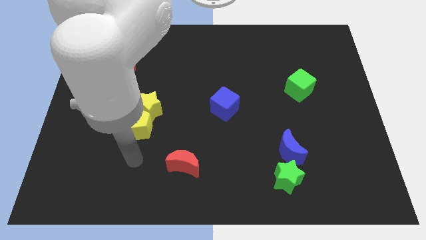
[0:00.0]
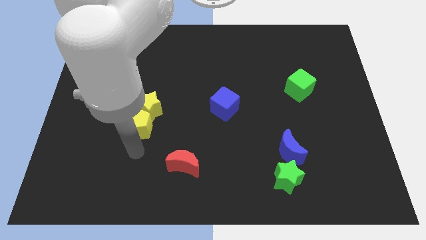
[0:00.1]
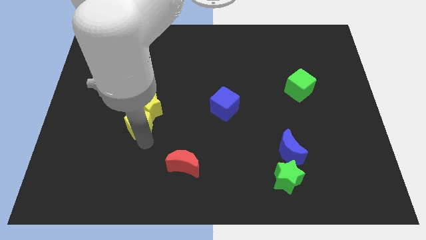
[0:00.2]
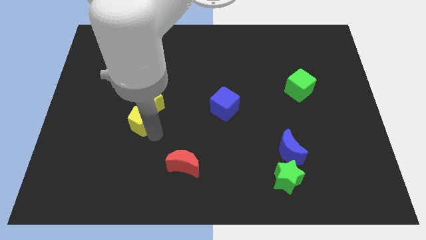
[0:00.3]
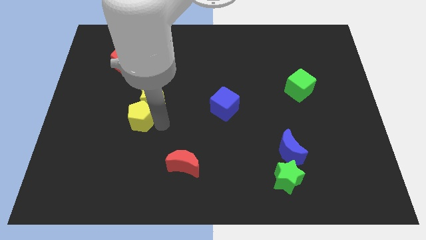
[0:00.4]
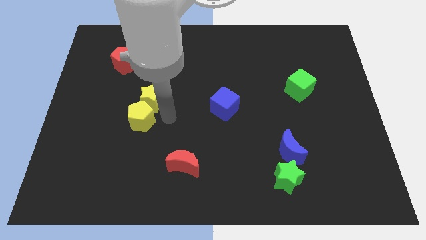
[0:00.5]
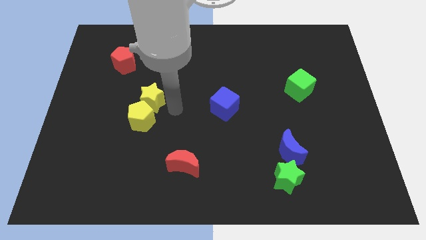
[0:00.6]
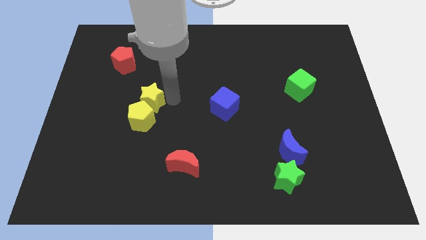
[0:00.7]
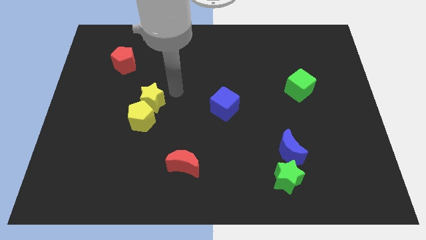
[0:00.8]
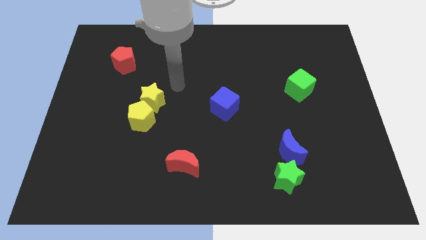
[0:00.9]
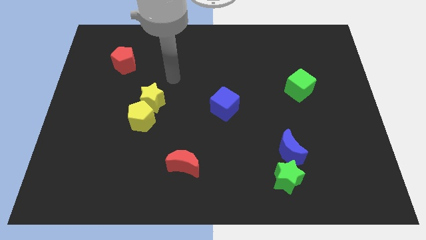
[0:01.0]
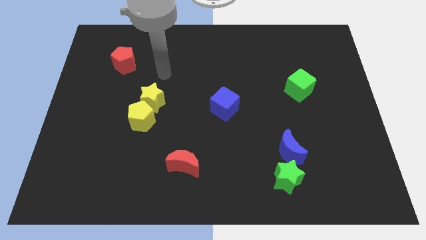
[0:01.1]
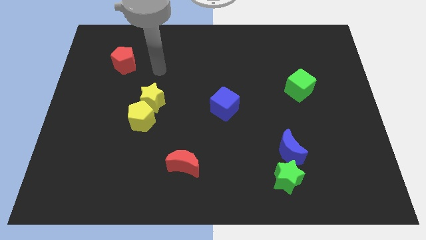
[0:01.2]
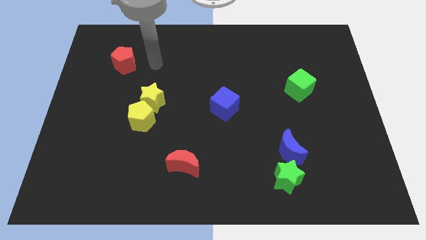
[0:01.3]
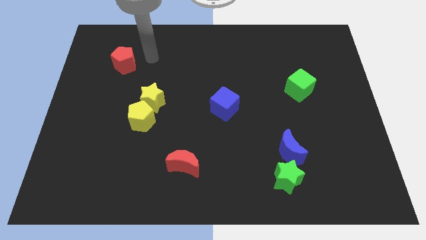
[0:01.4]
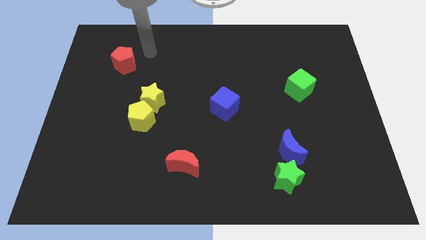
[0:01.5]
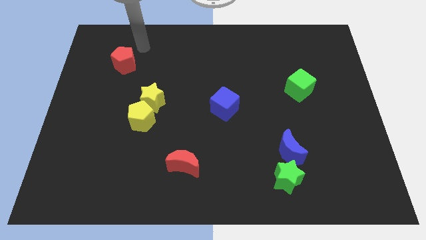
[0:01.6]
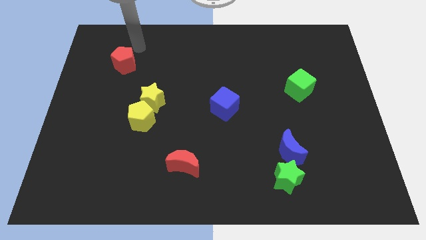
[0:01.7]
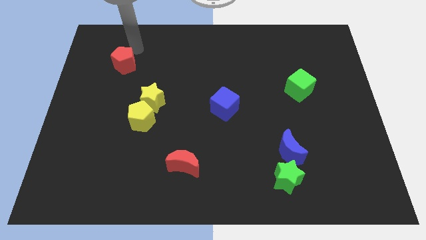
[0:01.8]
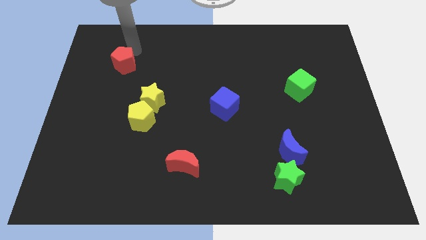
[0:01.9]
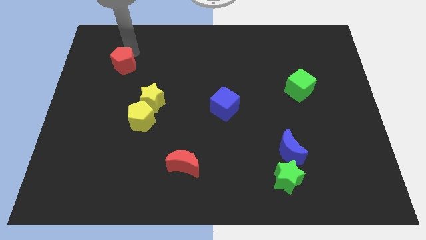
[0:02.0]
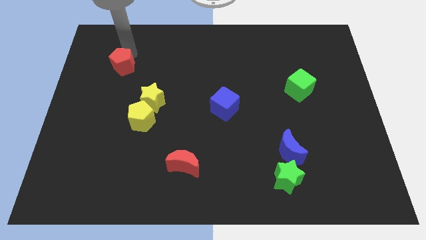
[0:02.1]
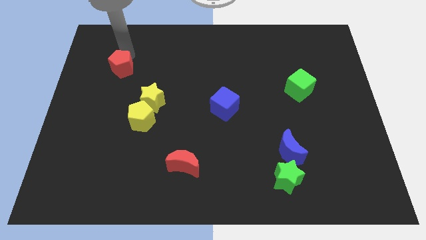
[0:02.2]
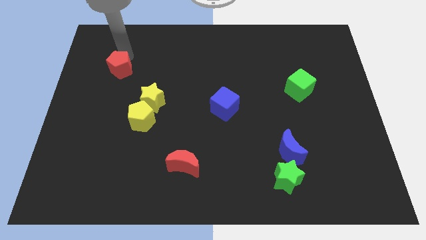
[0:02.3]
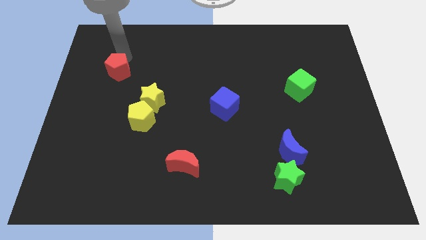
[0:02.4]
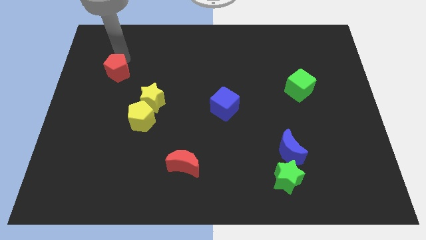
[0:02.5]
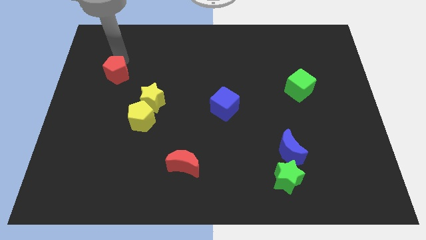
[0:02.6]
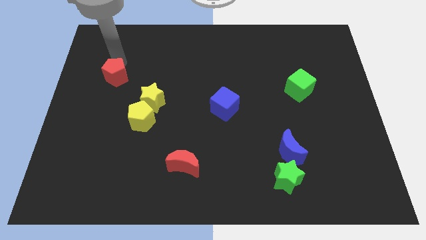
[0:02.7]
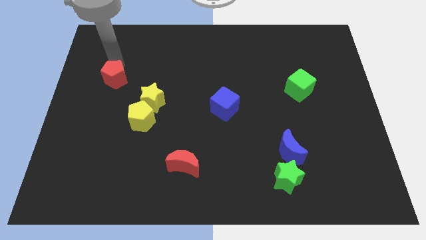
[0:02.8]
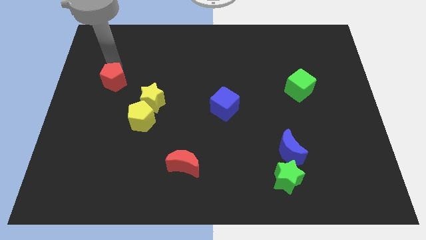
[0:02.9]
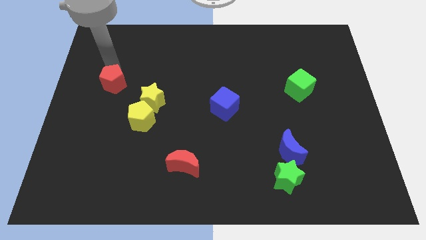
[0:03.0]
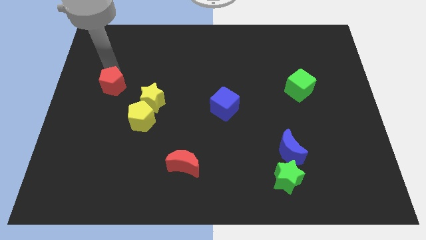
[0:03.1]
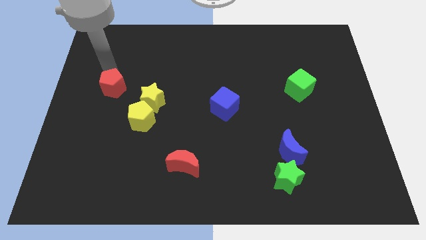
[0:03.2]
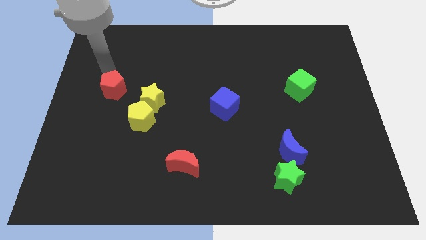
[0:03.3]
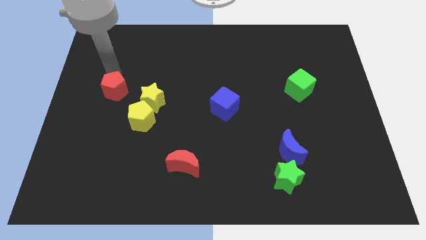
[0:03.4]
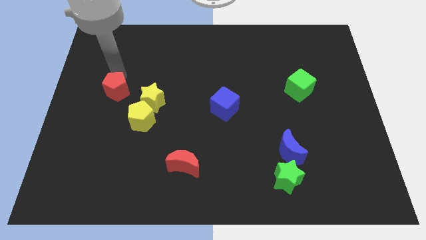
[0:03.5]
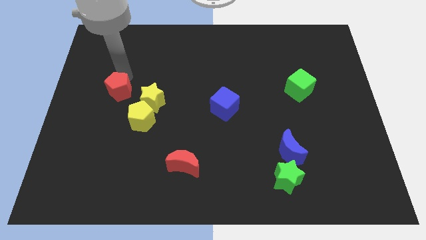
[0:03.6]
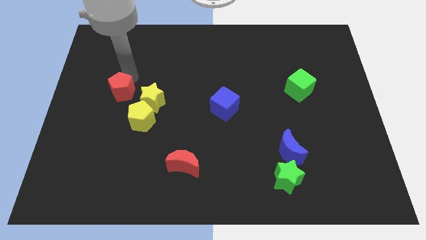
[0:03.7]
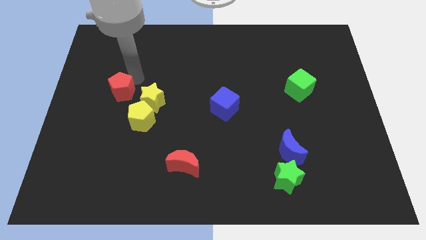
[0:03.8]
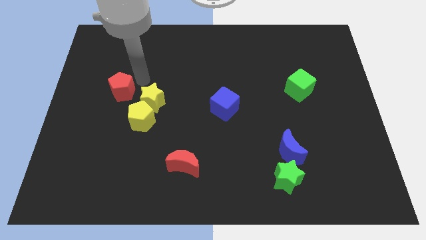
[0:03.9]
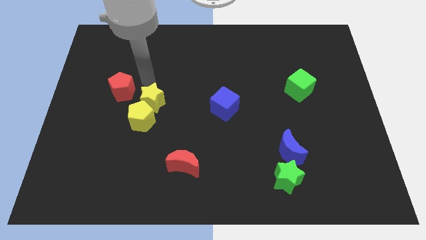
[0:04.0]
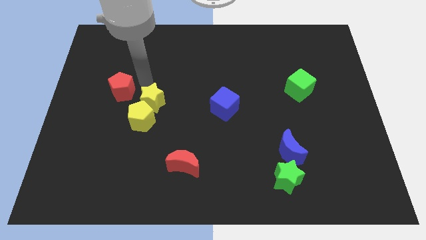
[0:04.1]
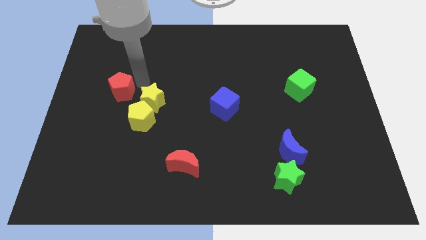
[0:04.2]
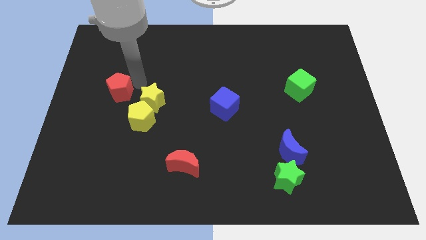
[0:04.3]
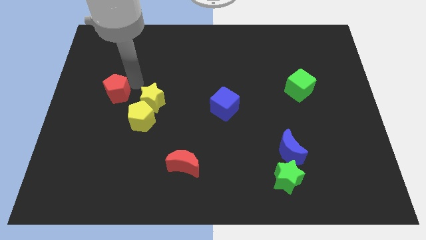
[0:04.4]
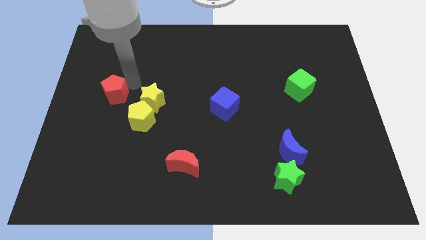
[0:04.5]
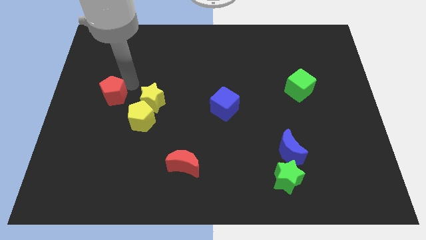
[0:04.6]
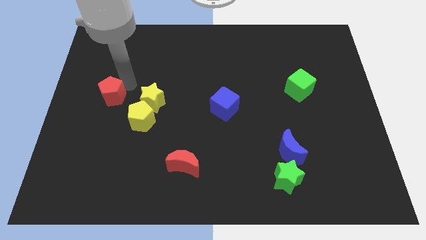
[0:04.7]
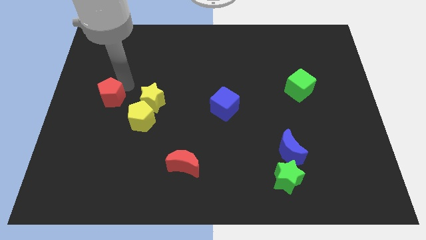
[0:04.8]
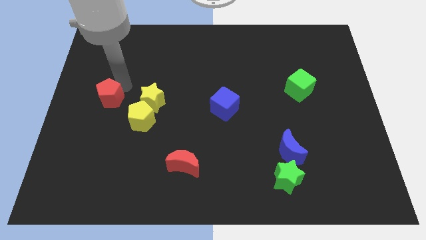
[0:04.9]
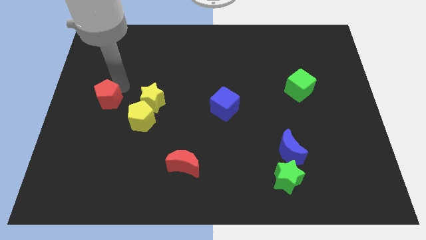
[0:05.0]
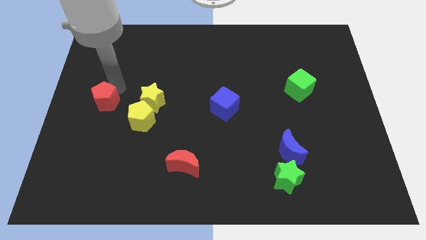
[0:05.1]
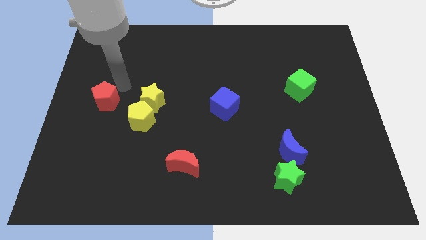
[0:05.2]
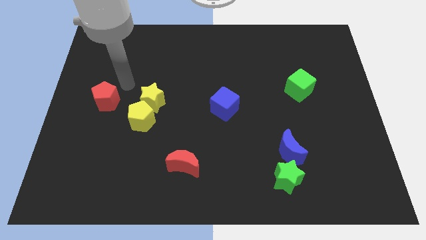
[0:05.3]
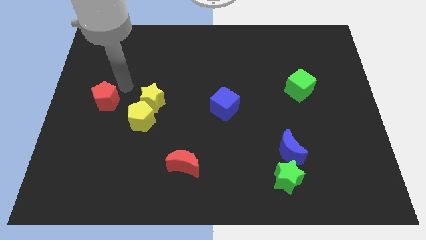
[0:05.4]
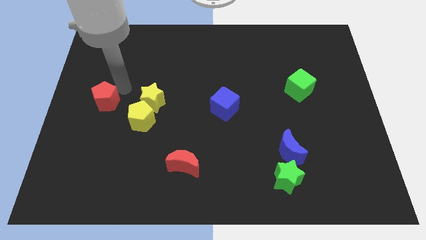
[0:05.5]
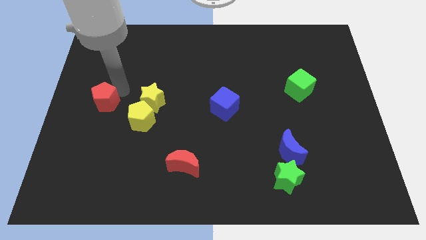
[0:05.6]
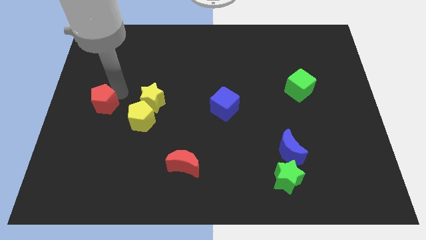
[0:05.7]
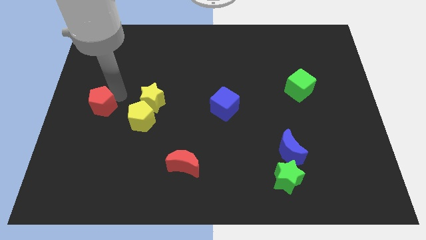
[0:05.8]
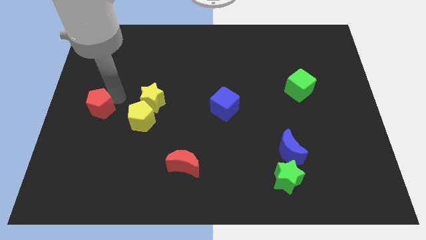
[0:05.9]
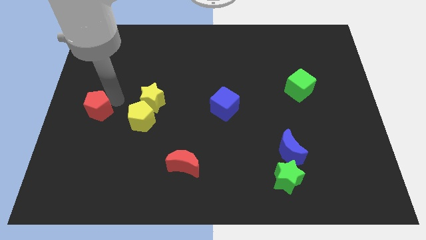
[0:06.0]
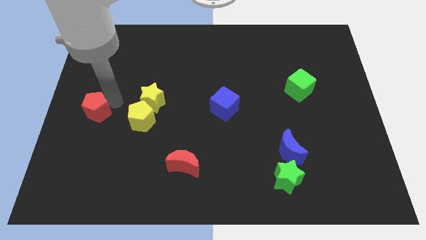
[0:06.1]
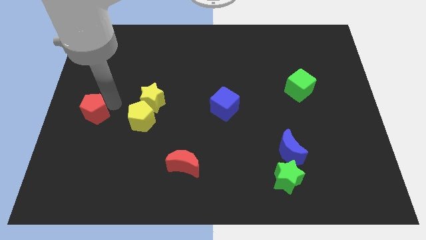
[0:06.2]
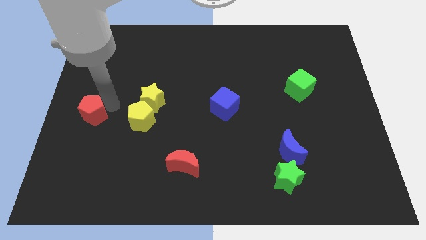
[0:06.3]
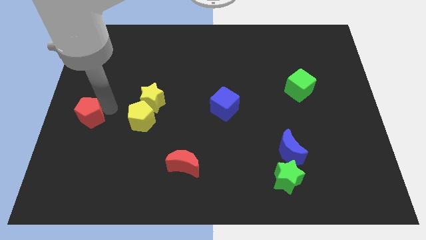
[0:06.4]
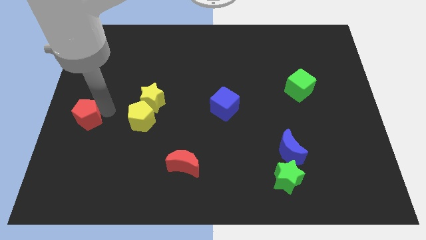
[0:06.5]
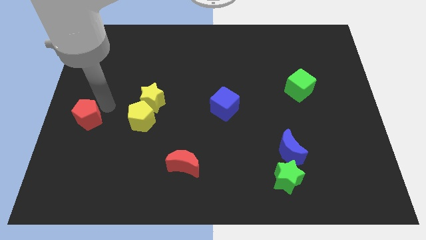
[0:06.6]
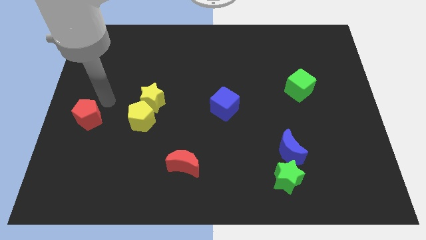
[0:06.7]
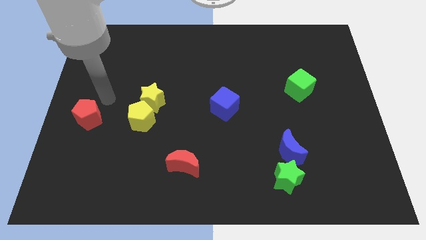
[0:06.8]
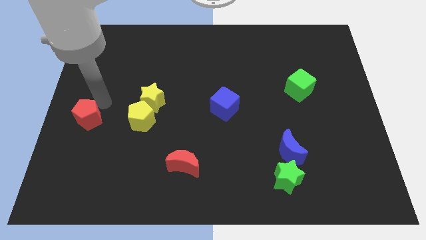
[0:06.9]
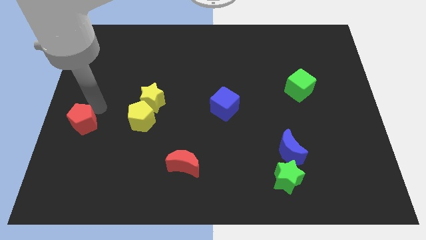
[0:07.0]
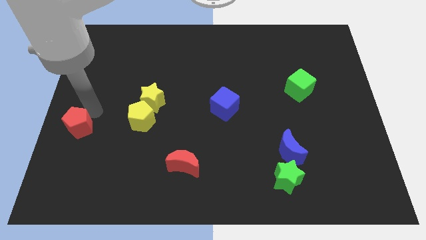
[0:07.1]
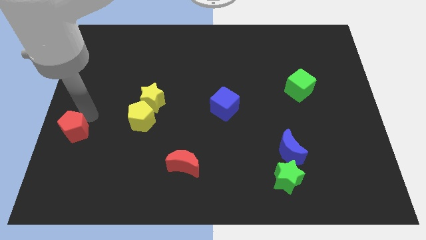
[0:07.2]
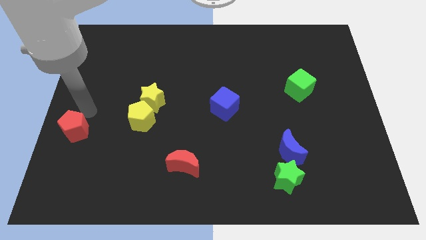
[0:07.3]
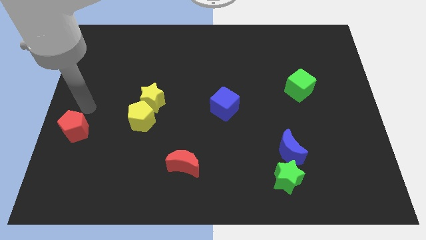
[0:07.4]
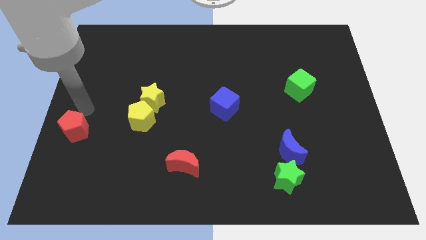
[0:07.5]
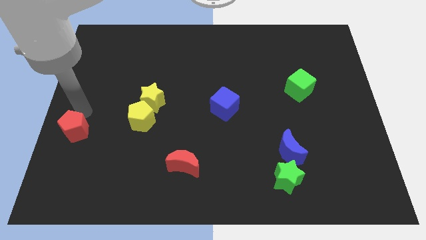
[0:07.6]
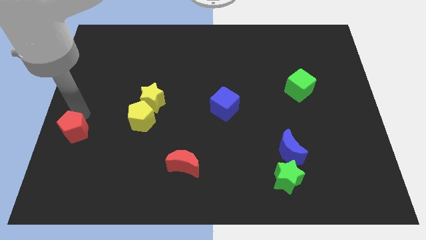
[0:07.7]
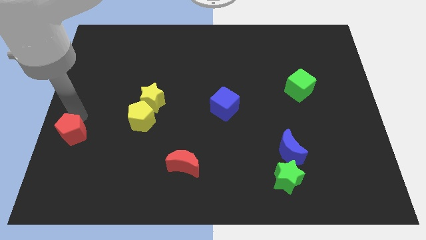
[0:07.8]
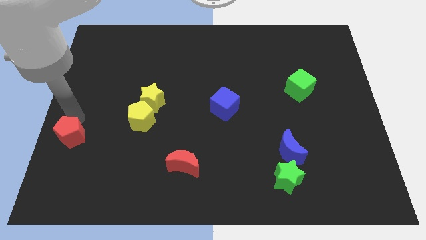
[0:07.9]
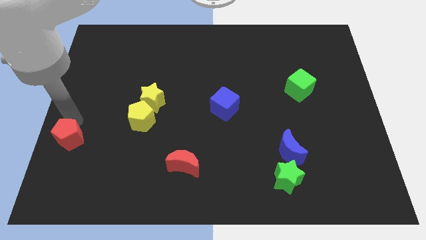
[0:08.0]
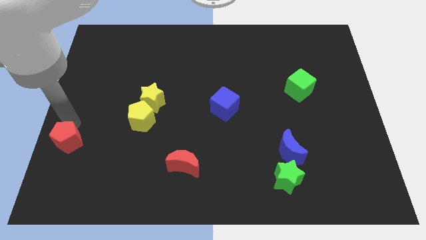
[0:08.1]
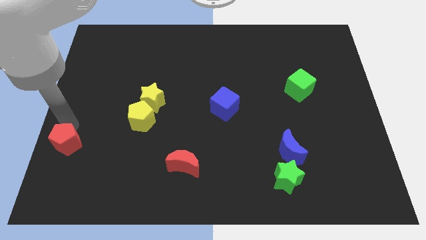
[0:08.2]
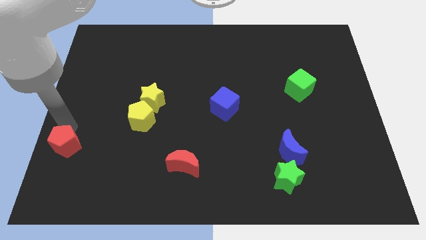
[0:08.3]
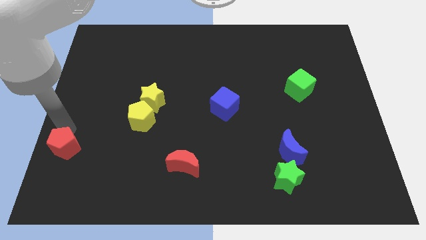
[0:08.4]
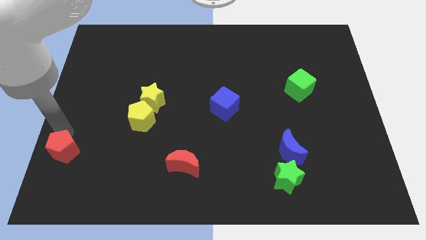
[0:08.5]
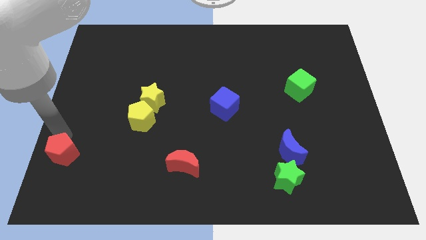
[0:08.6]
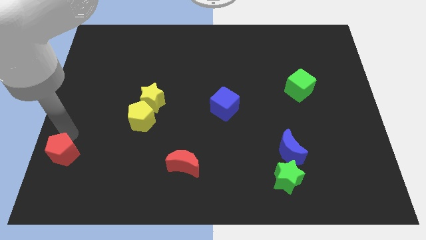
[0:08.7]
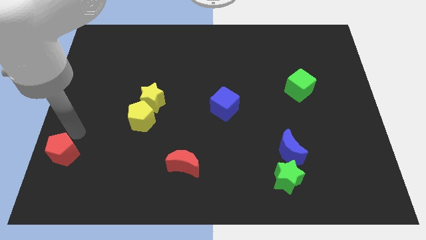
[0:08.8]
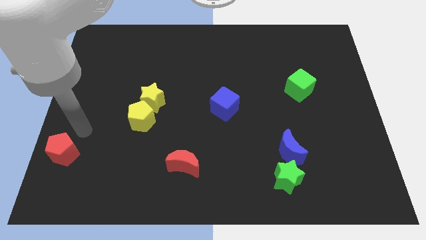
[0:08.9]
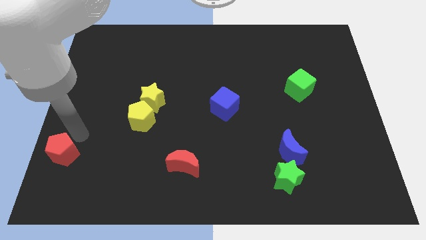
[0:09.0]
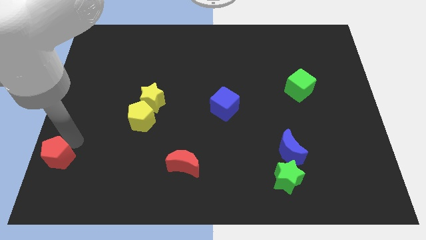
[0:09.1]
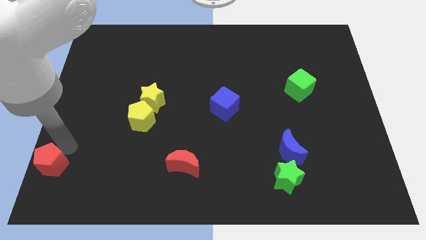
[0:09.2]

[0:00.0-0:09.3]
push the red pentagon to the bottom left
